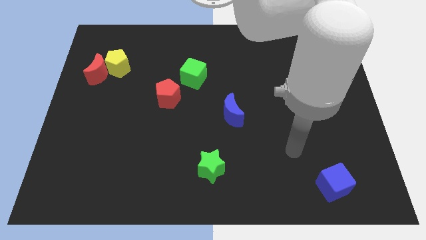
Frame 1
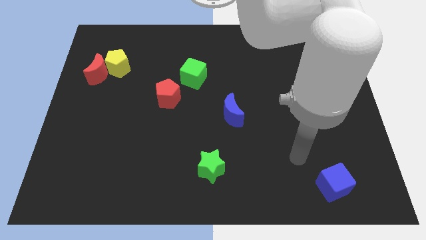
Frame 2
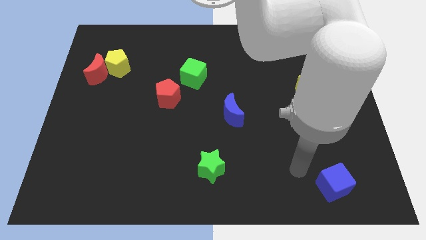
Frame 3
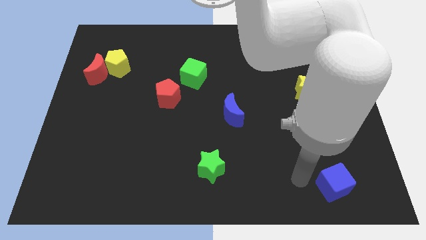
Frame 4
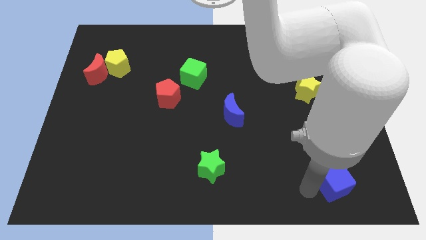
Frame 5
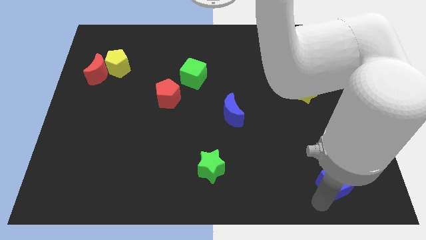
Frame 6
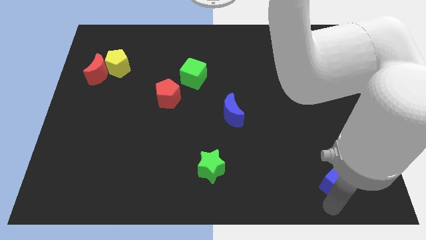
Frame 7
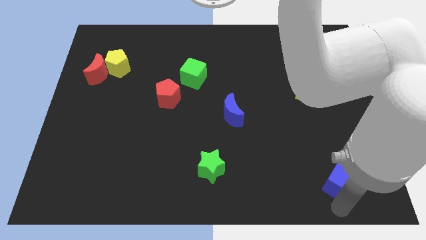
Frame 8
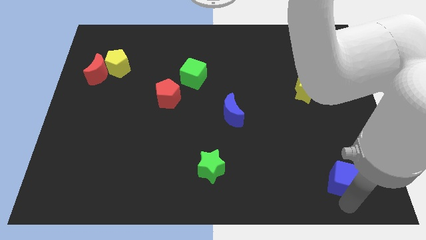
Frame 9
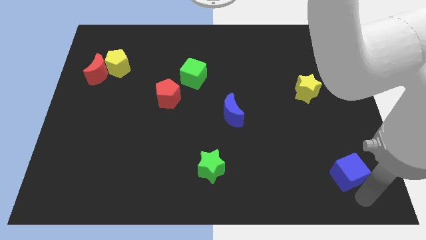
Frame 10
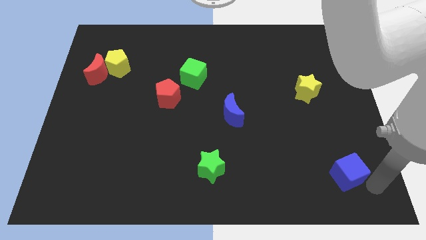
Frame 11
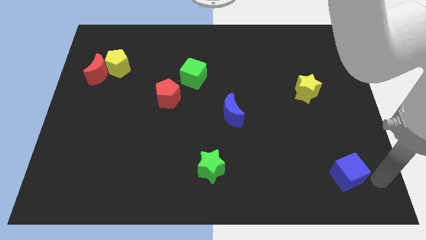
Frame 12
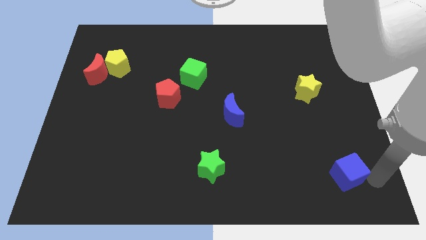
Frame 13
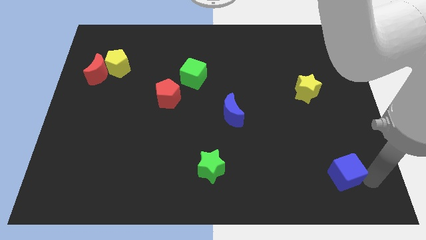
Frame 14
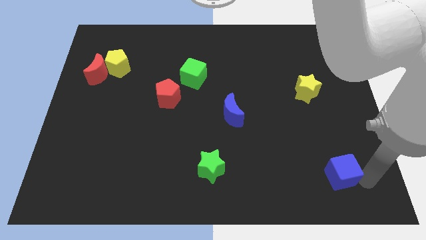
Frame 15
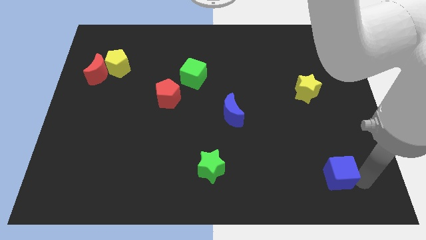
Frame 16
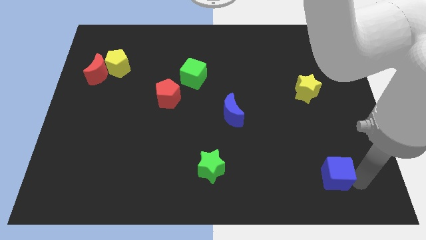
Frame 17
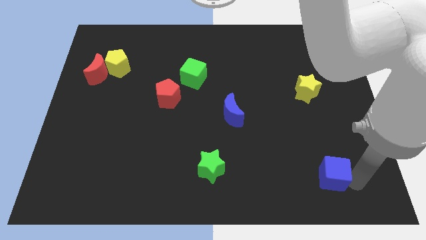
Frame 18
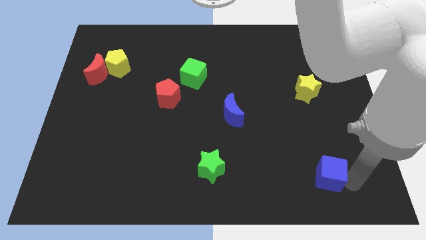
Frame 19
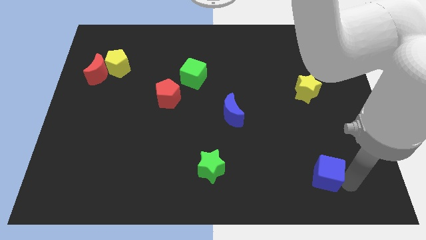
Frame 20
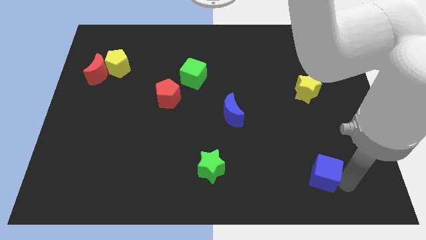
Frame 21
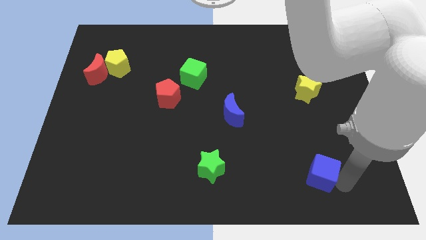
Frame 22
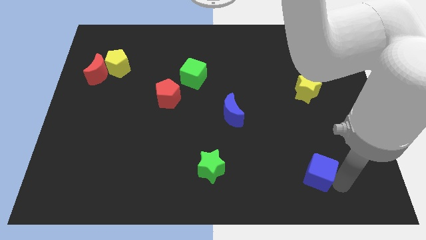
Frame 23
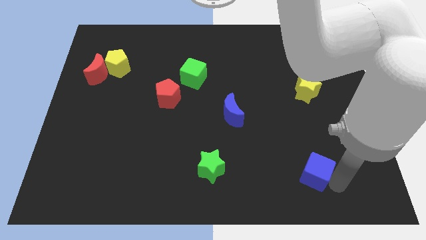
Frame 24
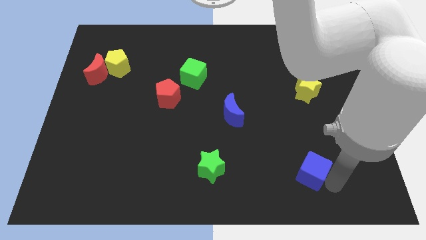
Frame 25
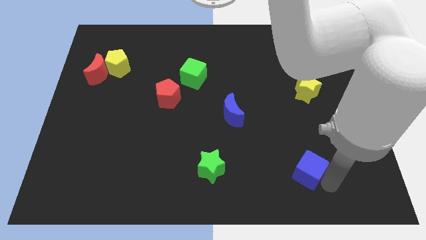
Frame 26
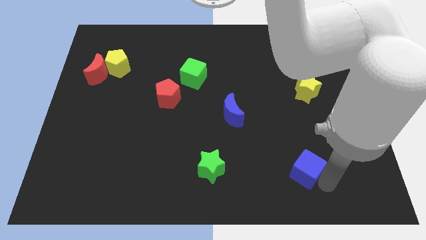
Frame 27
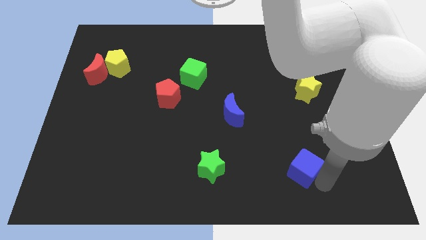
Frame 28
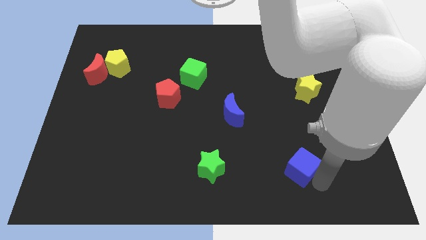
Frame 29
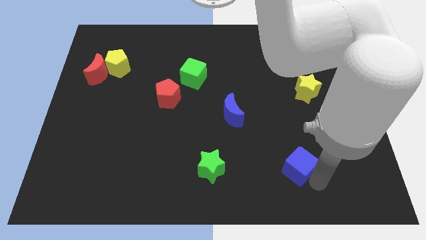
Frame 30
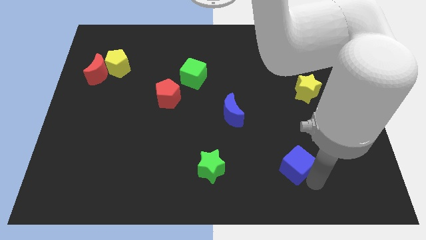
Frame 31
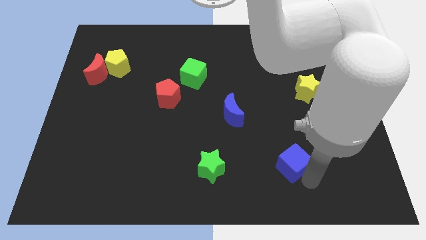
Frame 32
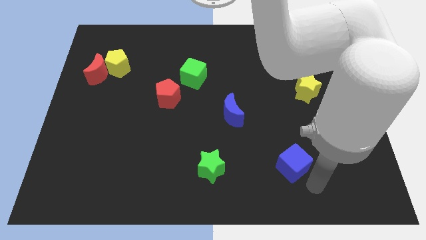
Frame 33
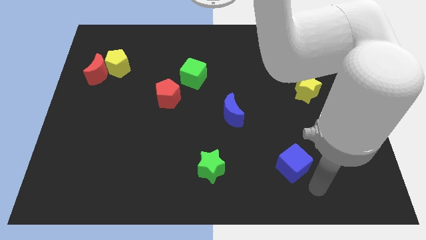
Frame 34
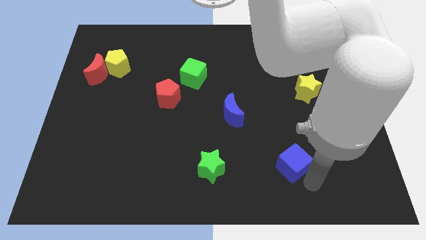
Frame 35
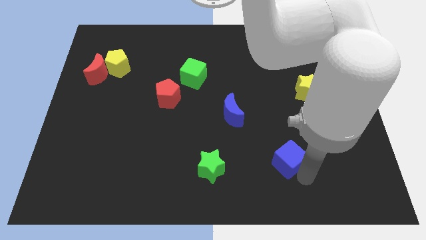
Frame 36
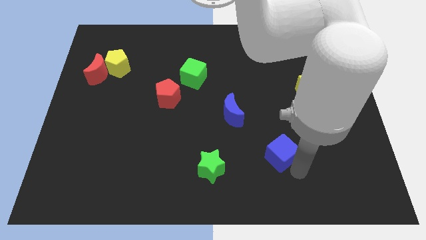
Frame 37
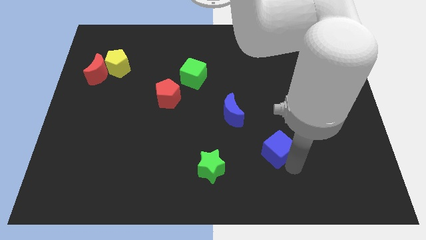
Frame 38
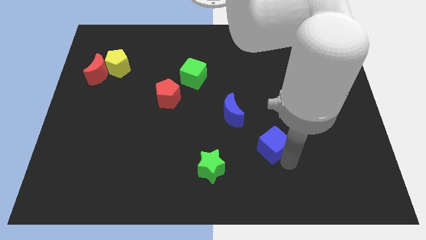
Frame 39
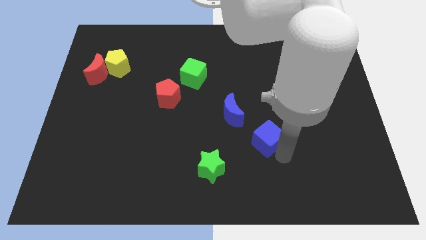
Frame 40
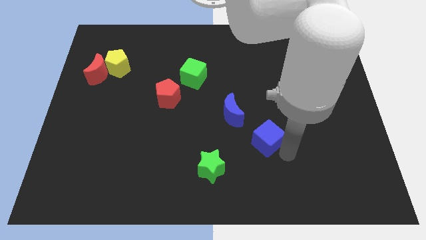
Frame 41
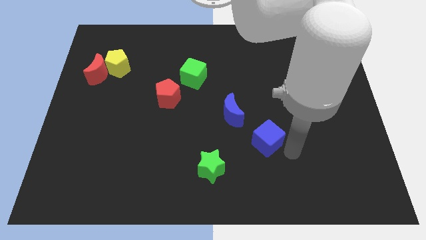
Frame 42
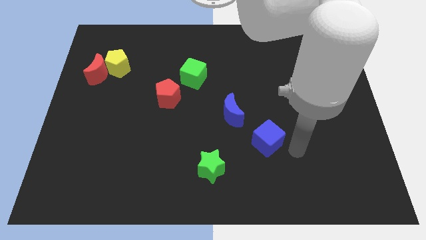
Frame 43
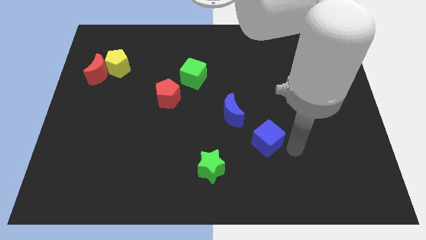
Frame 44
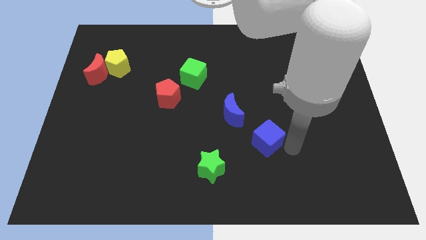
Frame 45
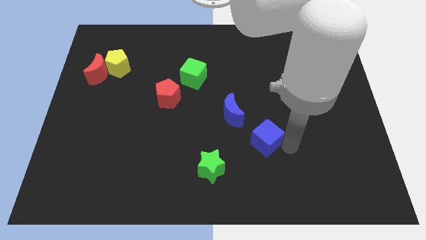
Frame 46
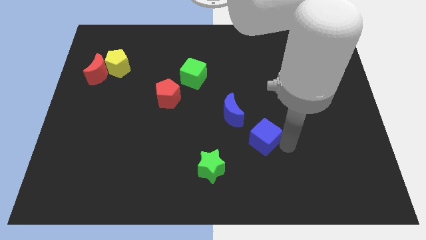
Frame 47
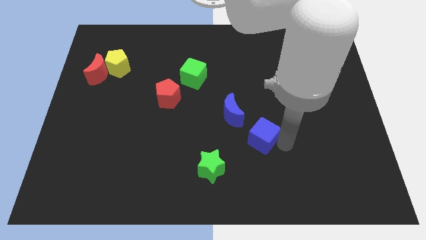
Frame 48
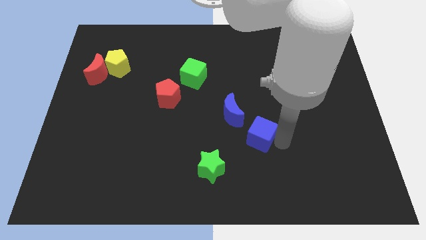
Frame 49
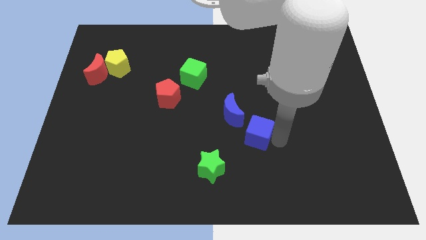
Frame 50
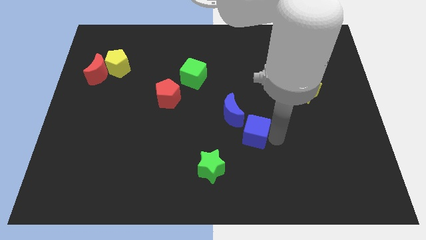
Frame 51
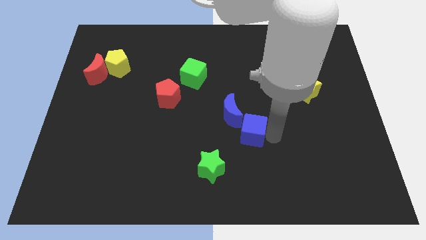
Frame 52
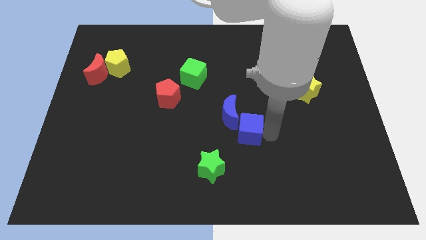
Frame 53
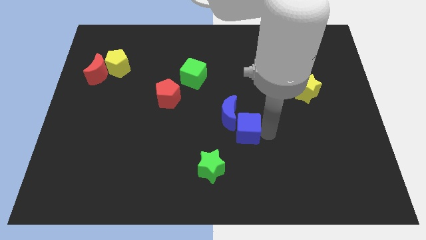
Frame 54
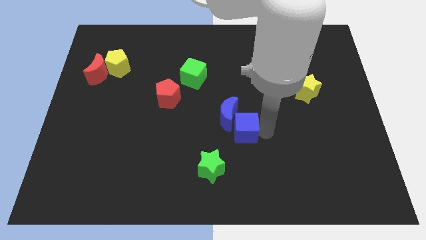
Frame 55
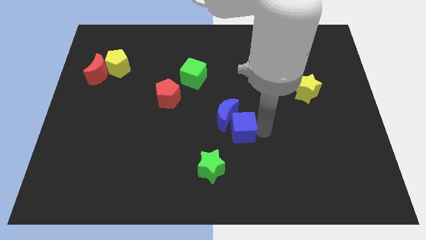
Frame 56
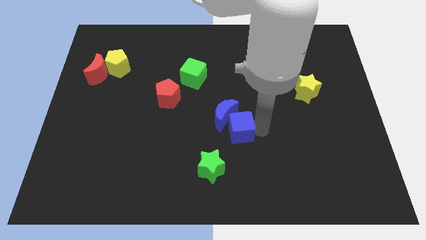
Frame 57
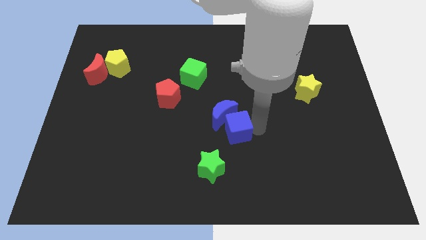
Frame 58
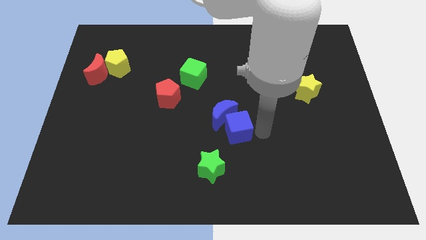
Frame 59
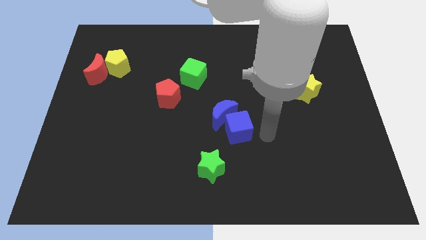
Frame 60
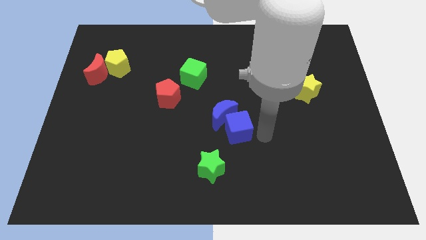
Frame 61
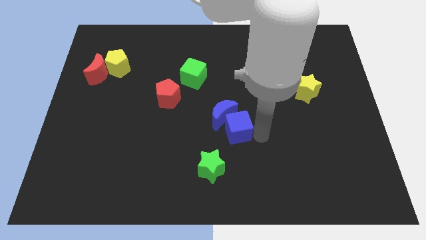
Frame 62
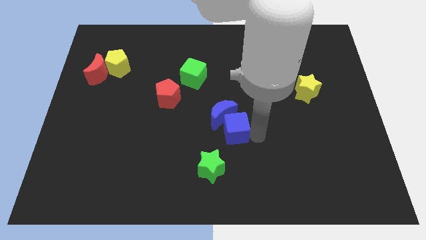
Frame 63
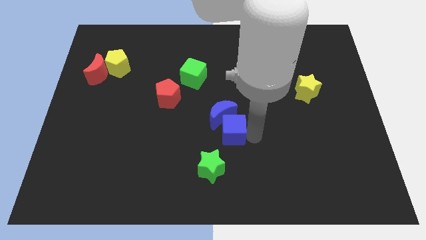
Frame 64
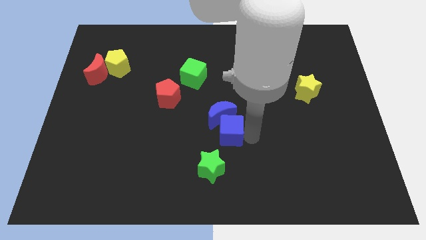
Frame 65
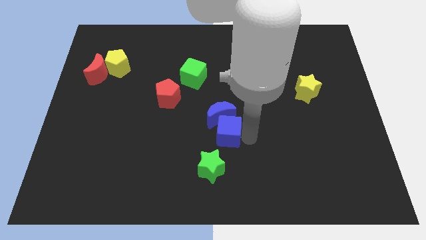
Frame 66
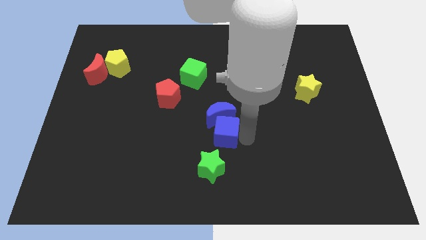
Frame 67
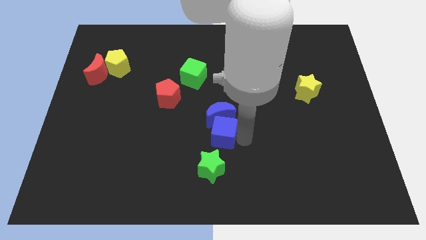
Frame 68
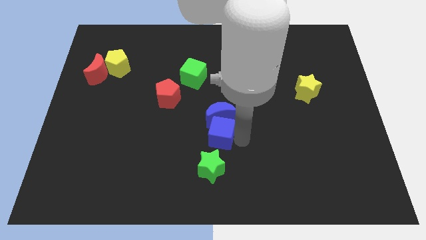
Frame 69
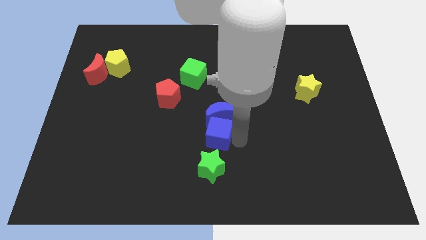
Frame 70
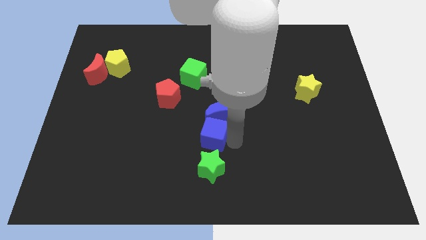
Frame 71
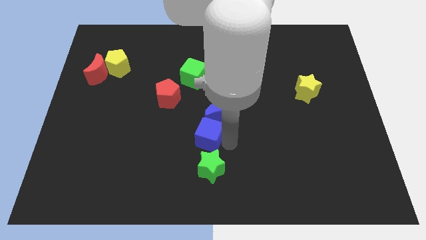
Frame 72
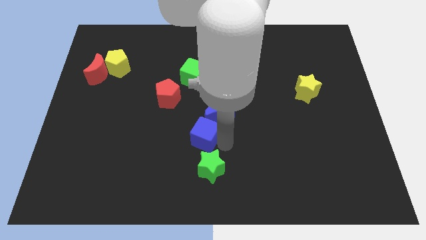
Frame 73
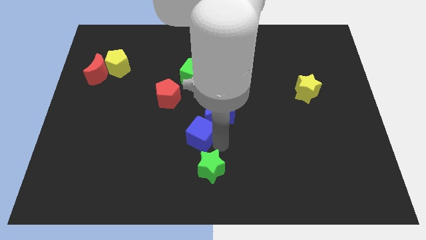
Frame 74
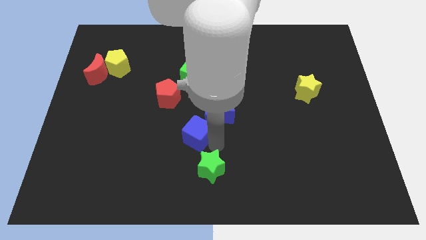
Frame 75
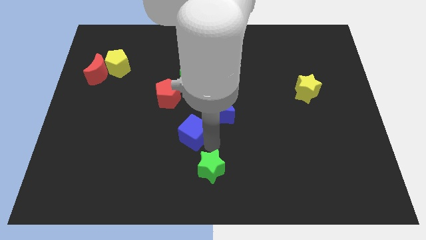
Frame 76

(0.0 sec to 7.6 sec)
push the blue cube left of the blue moon
